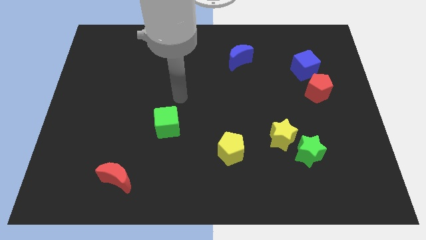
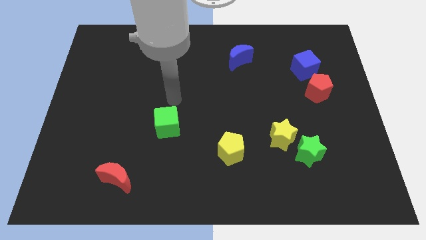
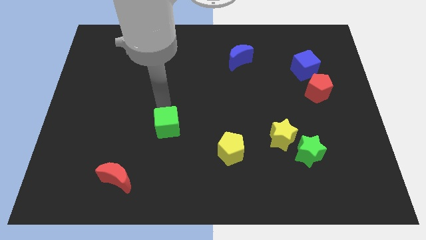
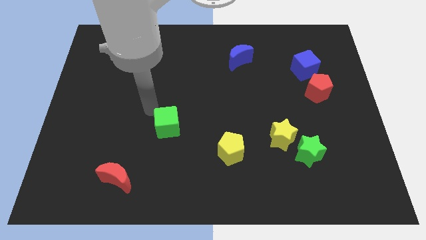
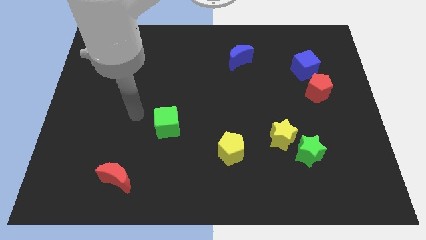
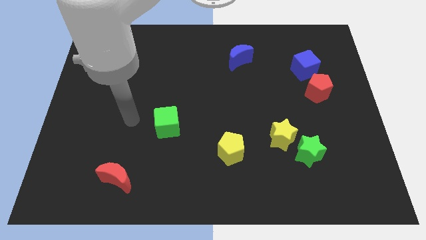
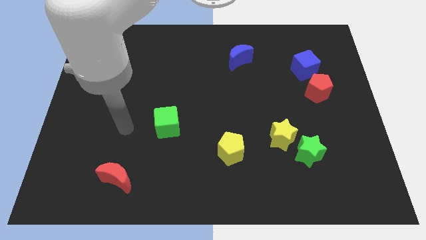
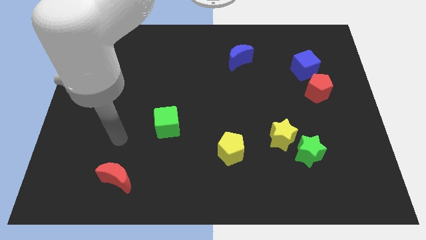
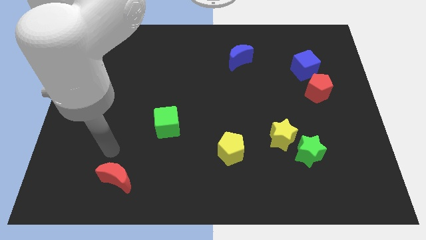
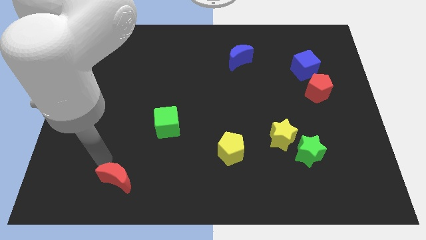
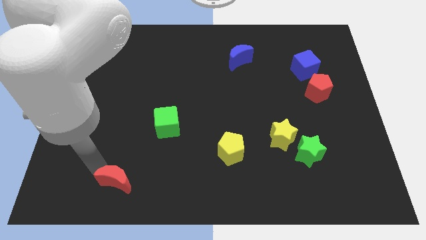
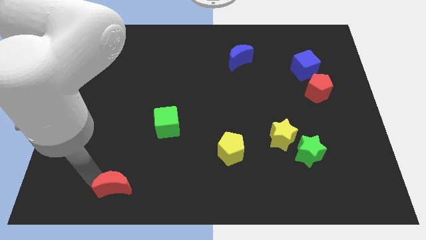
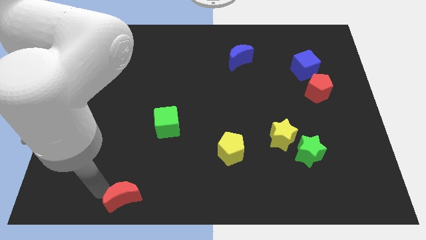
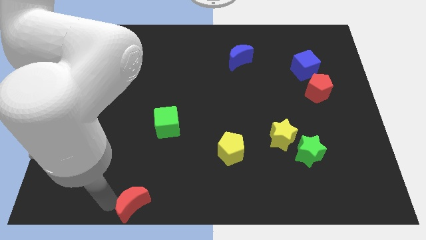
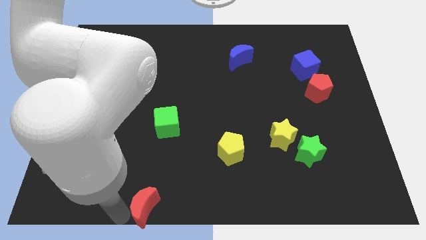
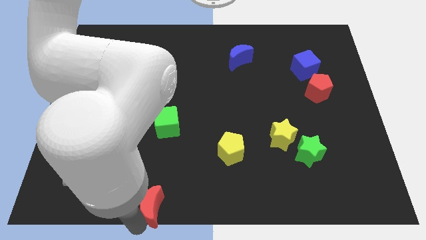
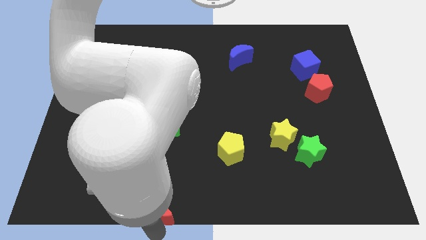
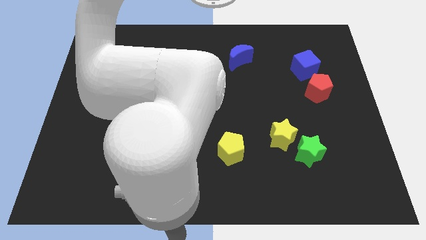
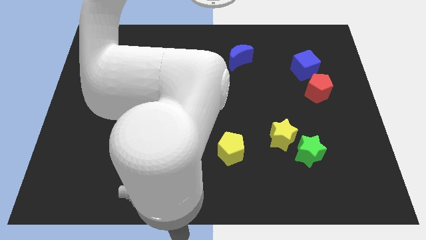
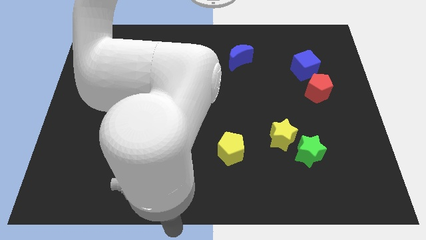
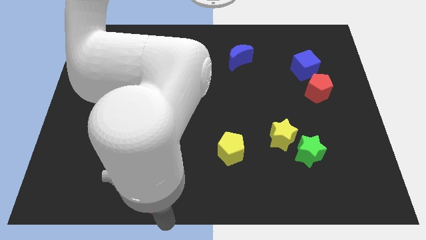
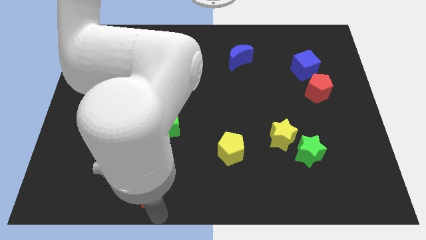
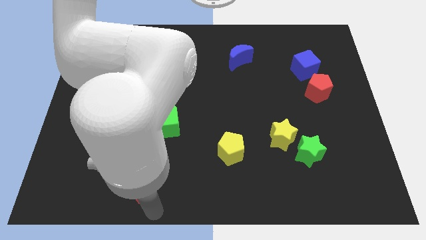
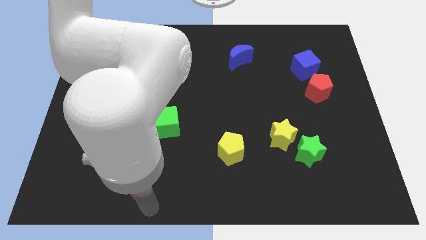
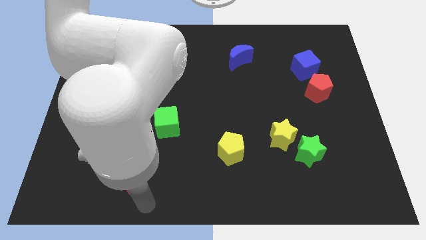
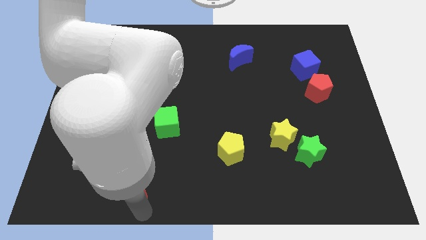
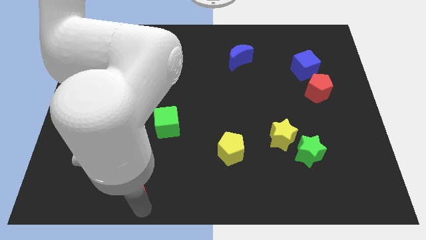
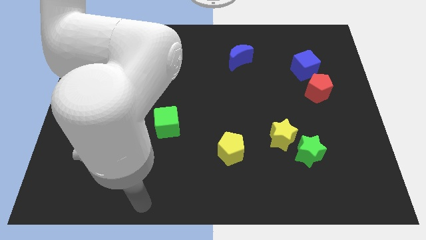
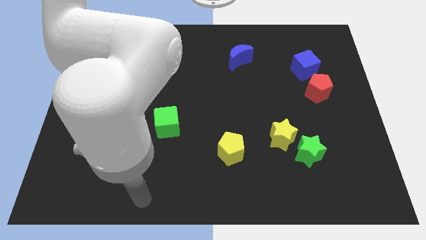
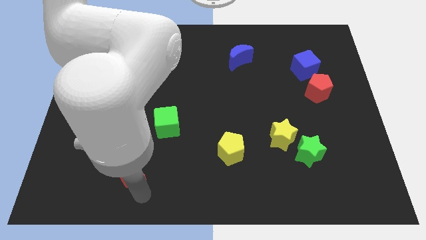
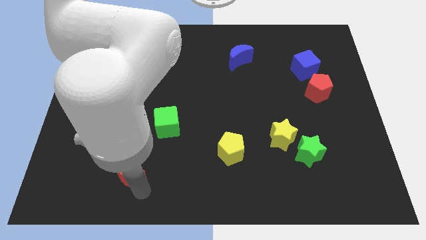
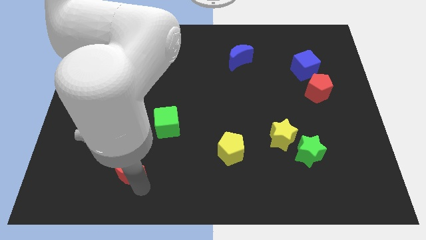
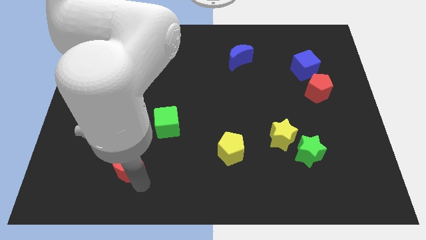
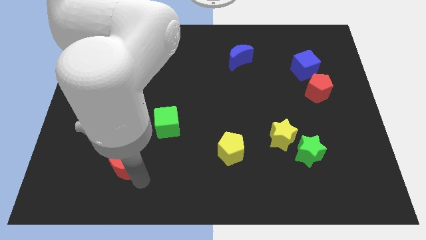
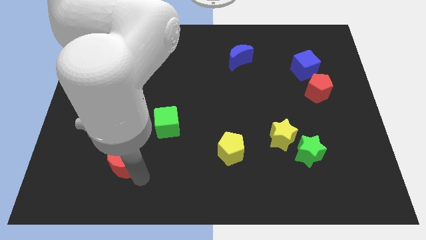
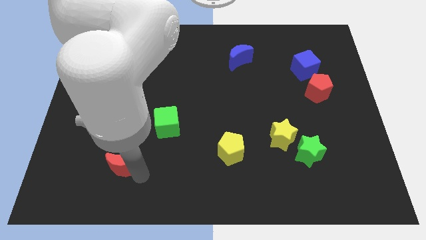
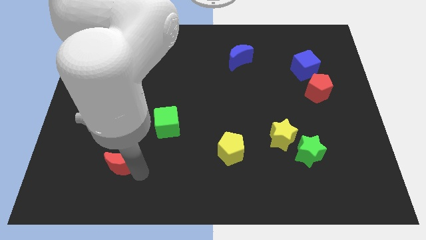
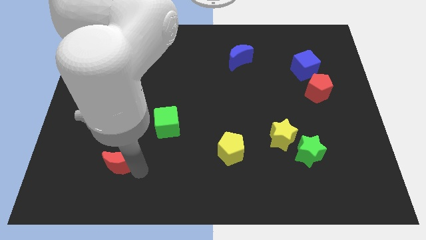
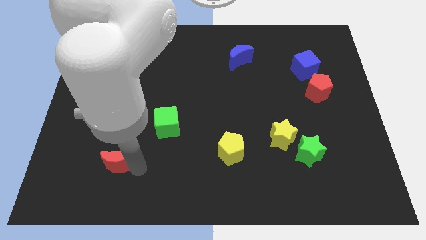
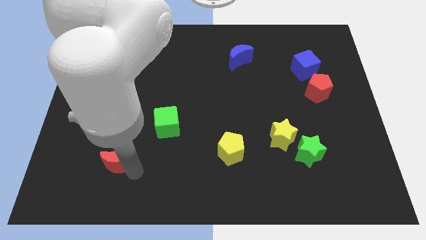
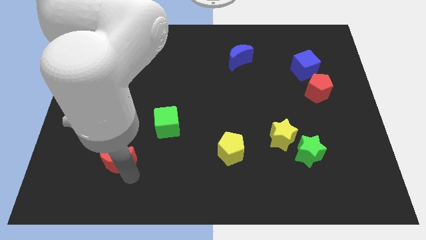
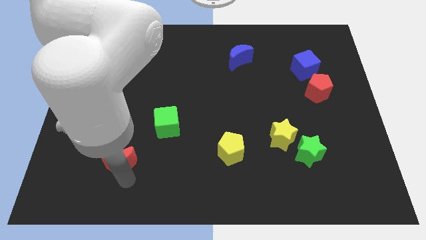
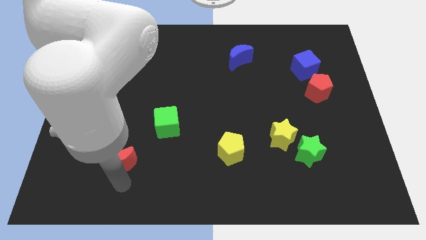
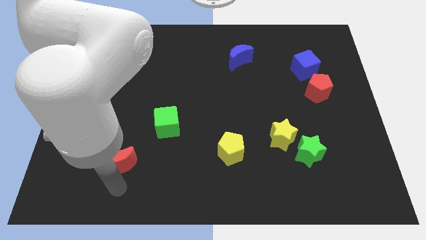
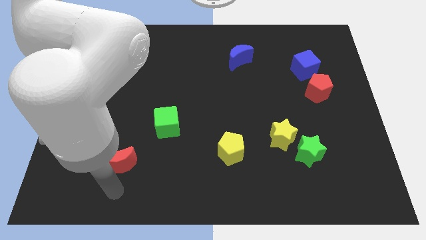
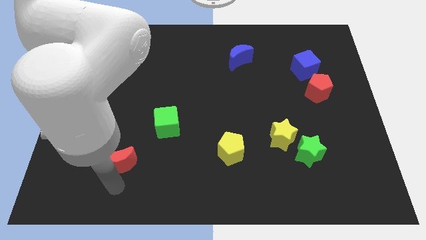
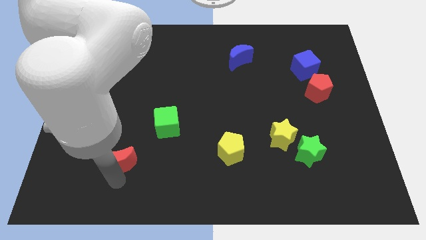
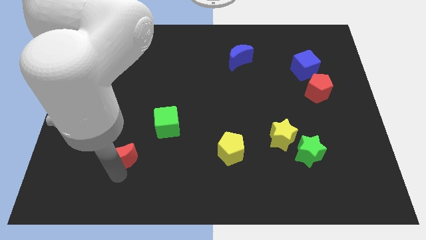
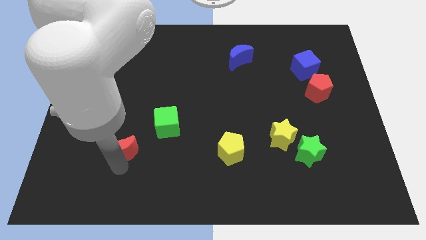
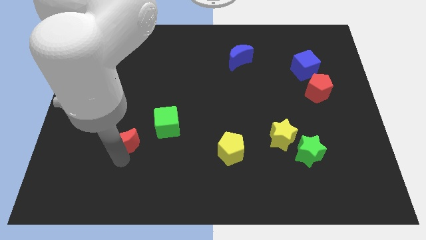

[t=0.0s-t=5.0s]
slide the red moon a little bit upwards

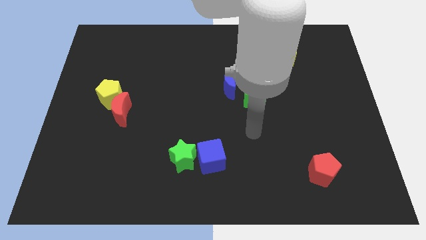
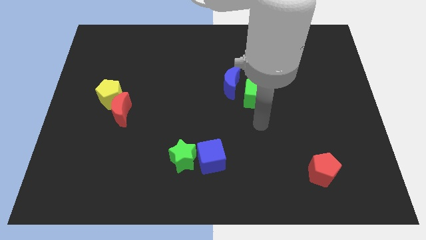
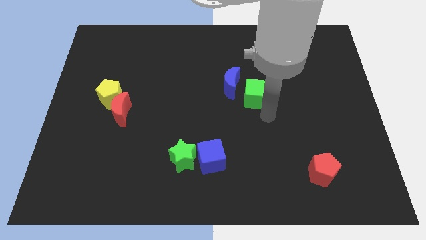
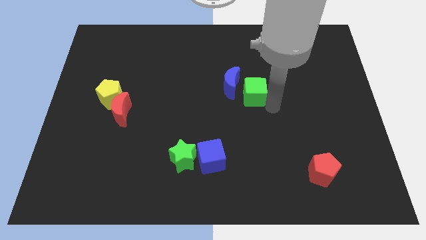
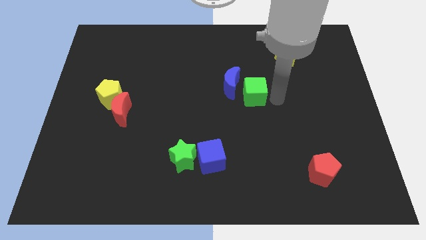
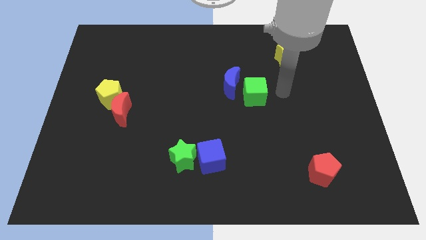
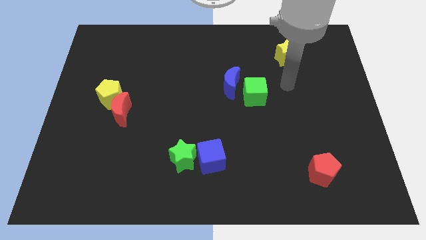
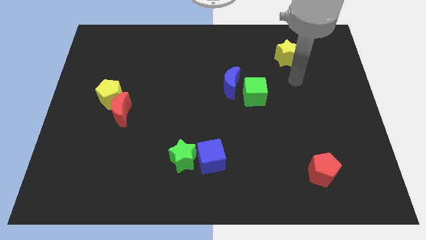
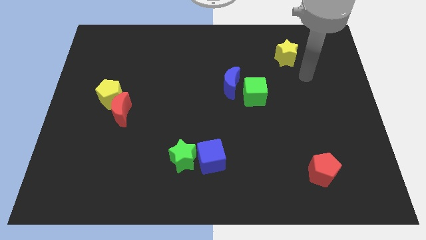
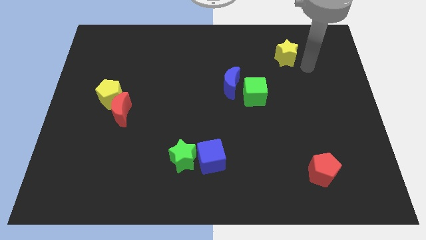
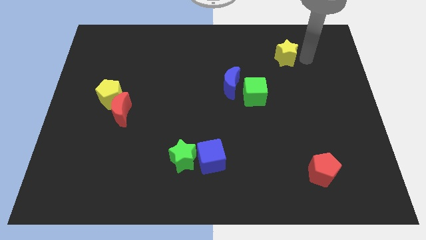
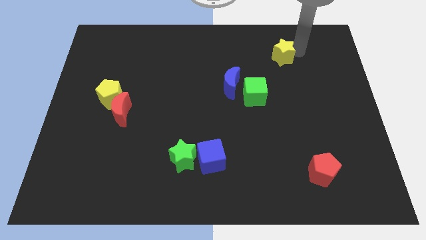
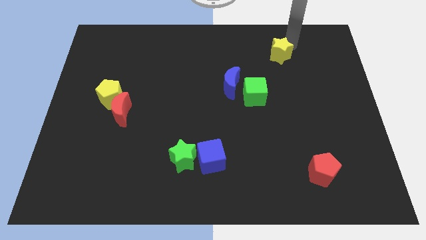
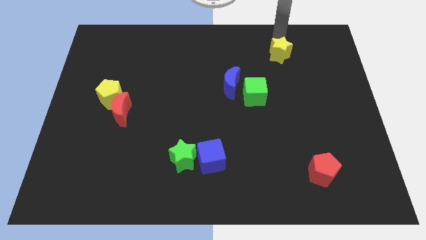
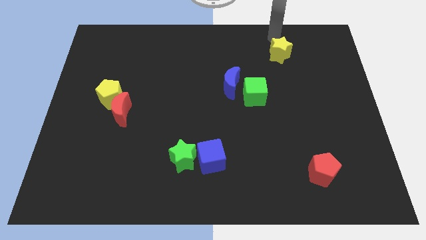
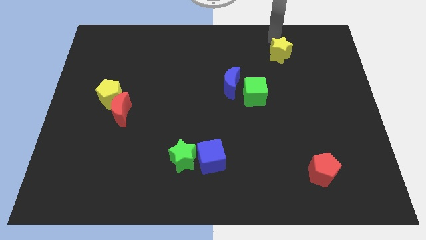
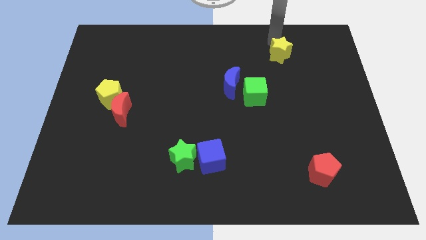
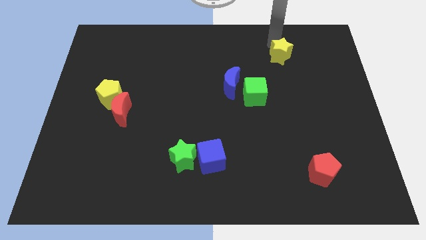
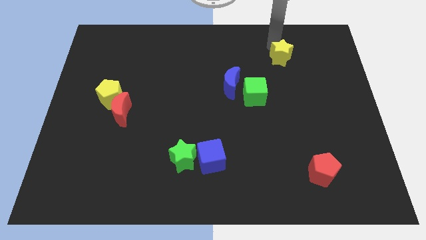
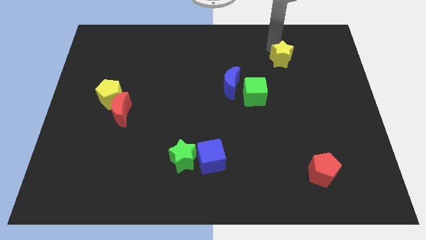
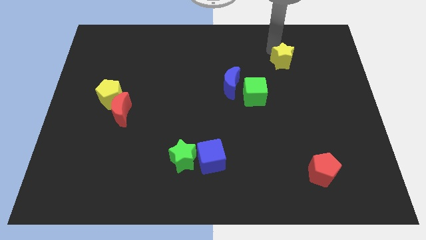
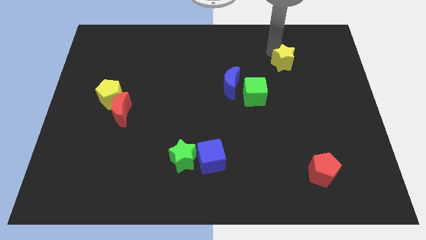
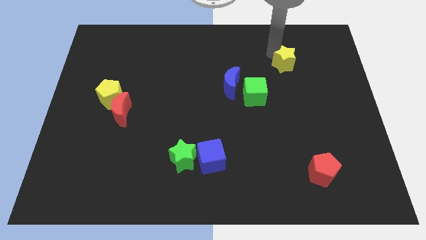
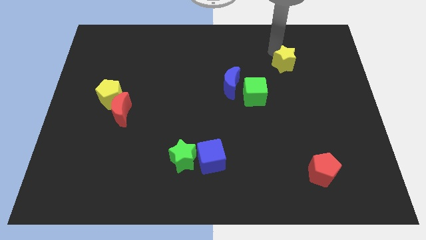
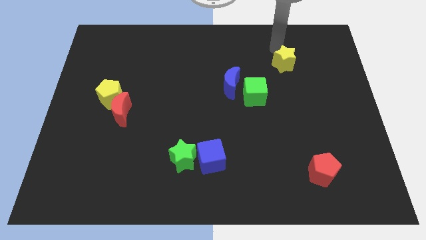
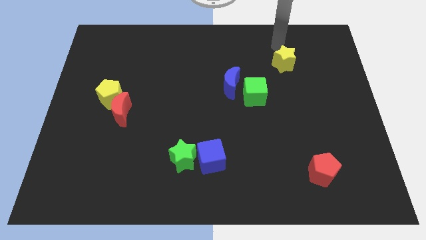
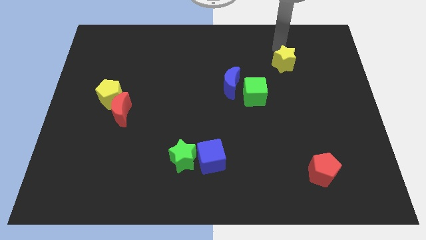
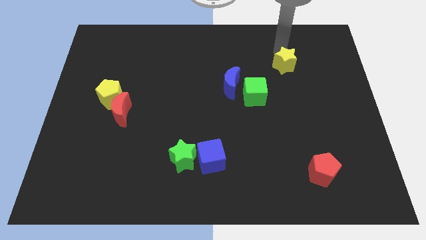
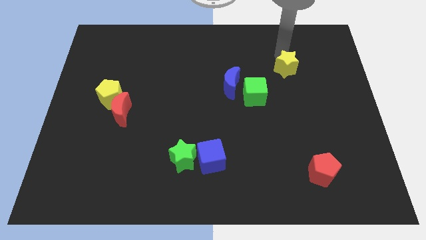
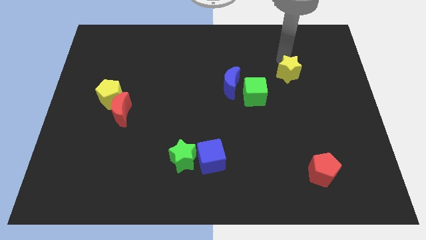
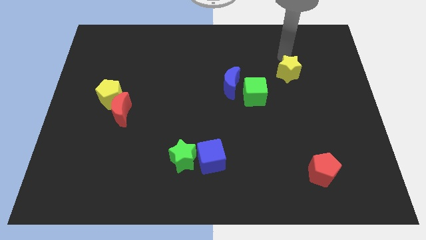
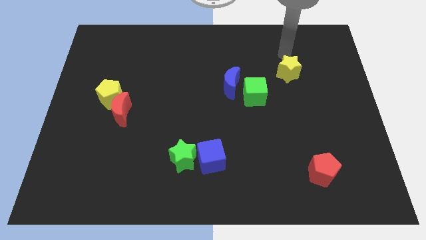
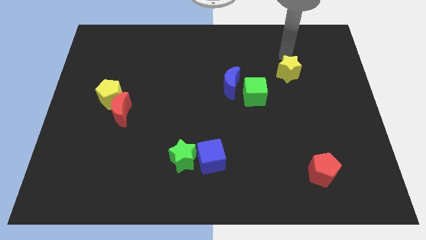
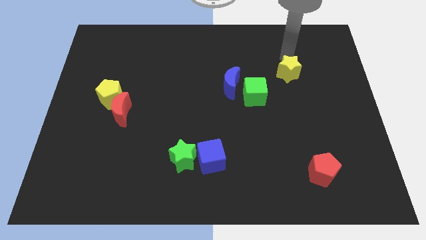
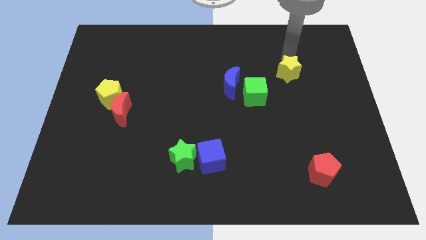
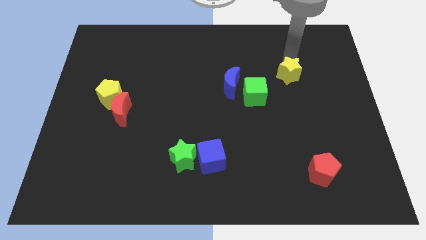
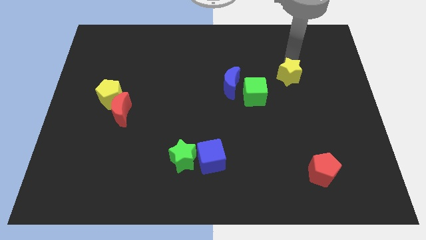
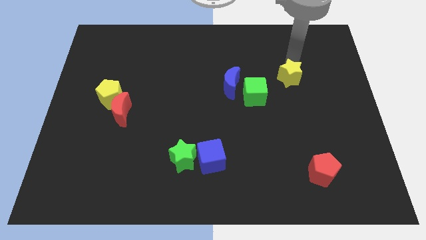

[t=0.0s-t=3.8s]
push the yellow star downwards slightly
